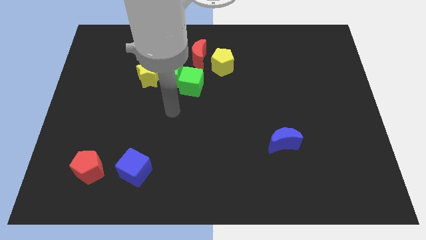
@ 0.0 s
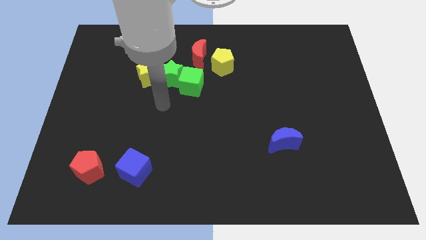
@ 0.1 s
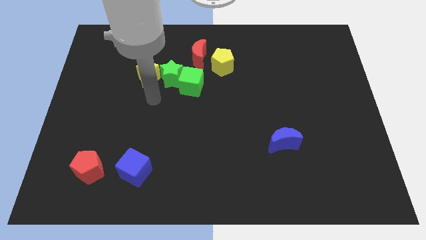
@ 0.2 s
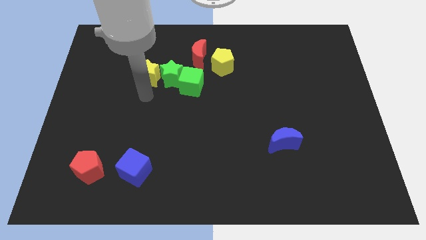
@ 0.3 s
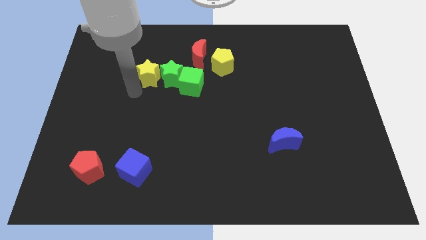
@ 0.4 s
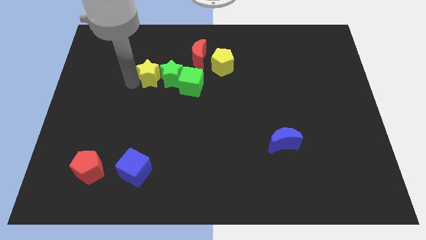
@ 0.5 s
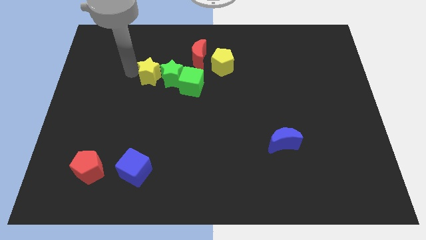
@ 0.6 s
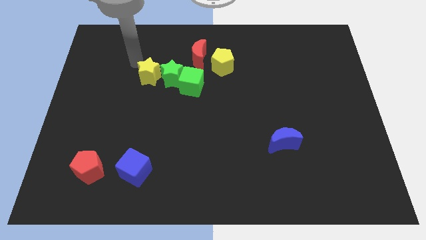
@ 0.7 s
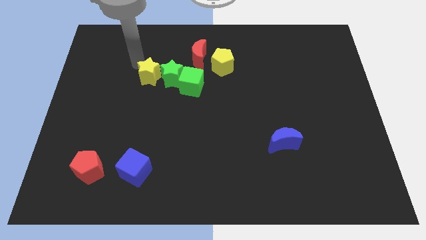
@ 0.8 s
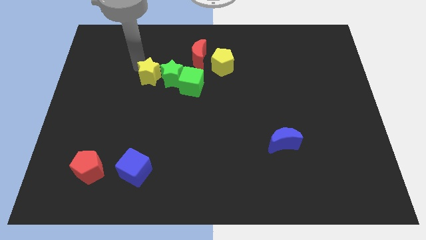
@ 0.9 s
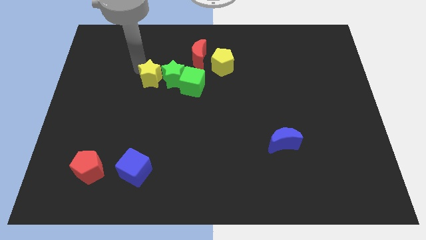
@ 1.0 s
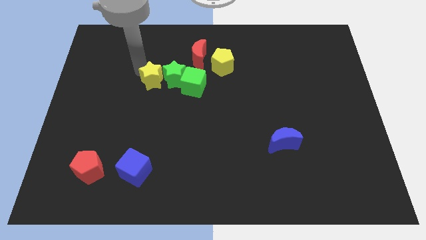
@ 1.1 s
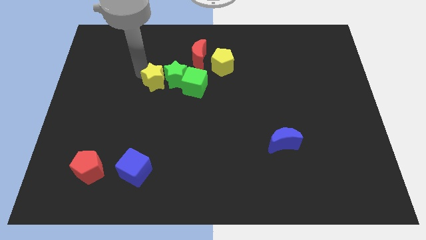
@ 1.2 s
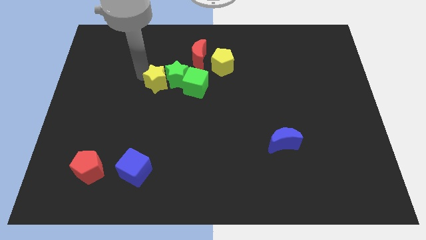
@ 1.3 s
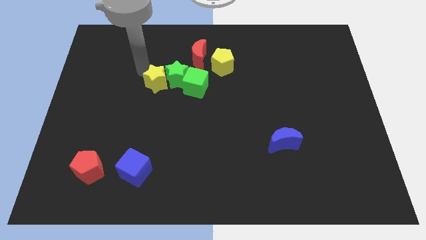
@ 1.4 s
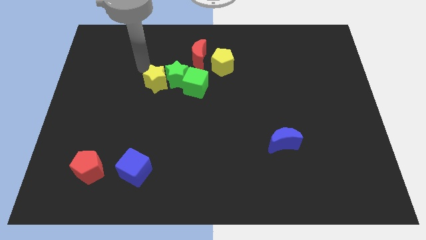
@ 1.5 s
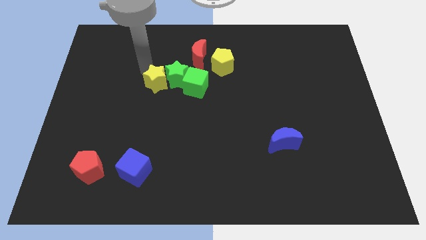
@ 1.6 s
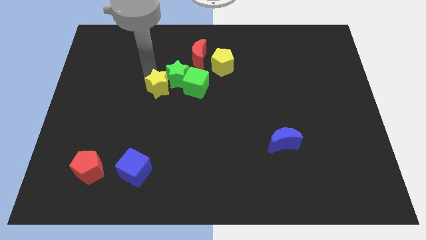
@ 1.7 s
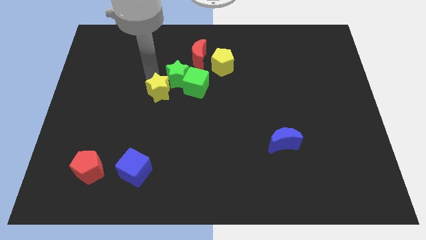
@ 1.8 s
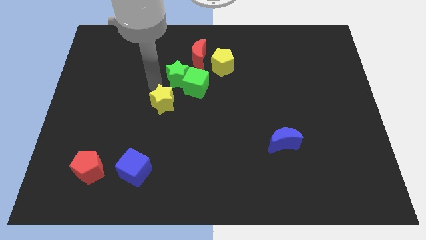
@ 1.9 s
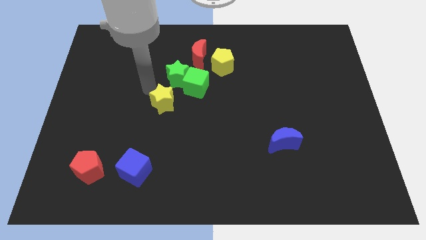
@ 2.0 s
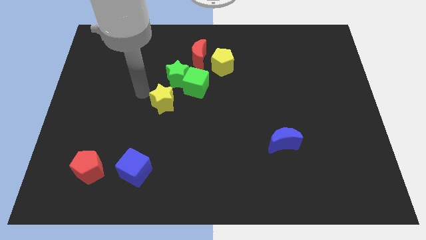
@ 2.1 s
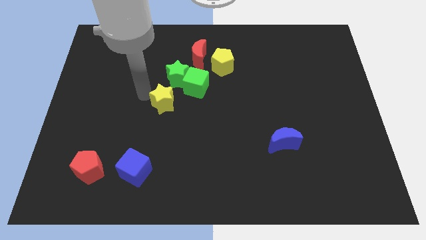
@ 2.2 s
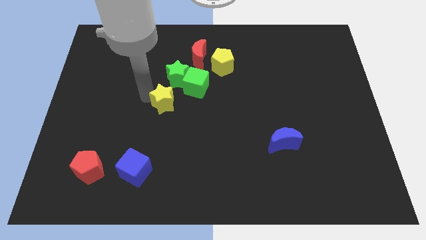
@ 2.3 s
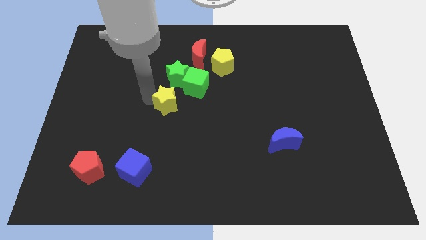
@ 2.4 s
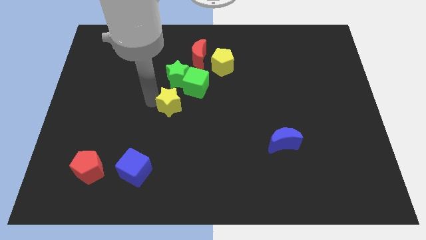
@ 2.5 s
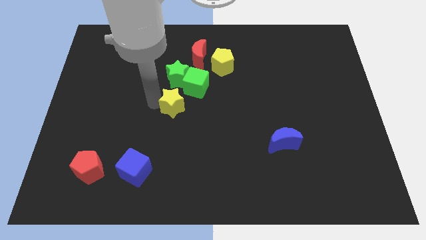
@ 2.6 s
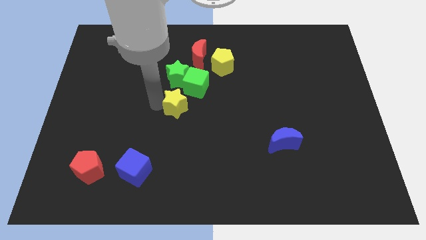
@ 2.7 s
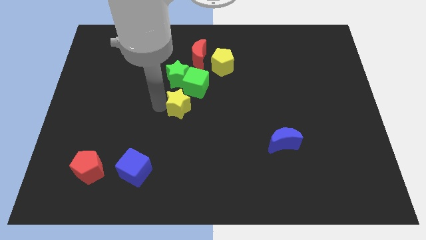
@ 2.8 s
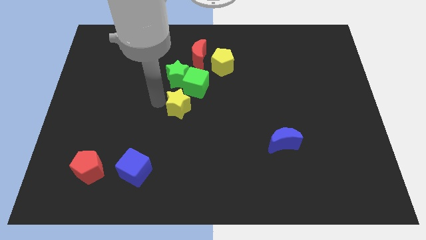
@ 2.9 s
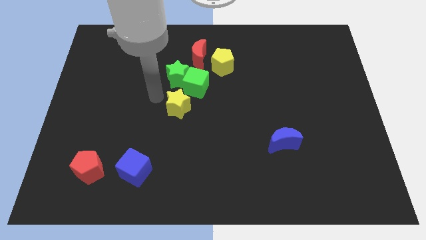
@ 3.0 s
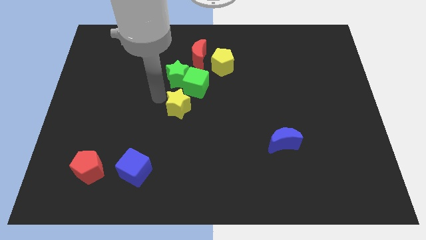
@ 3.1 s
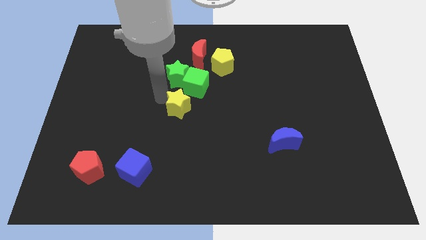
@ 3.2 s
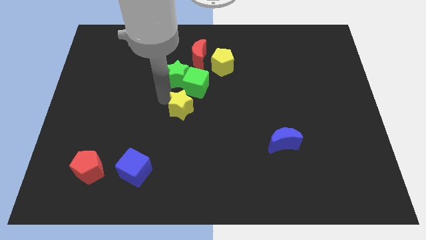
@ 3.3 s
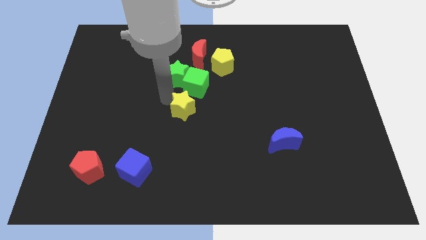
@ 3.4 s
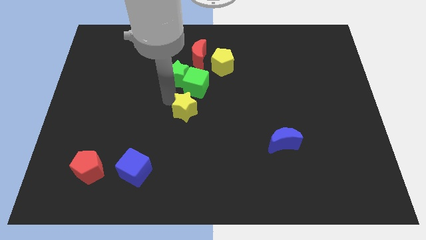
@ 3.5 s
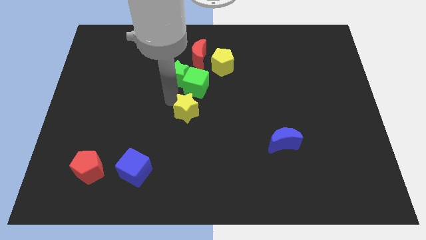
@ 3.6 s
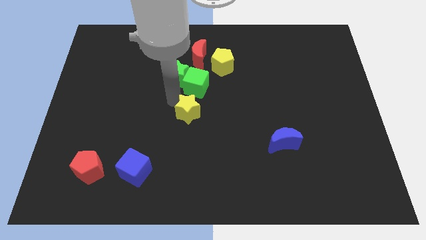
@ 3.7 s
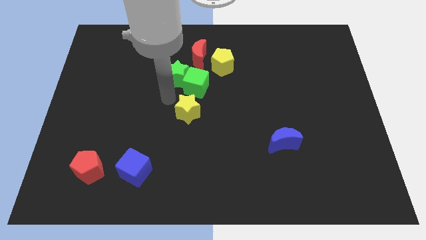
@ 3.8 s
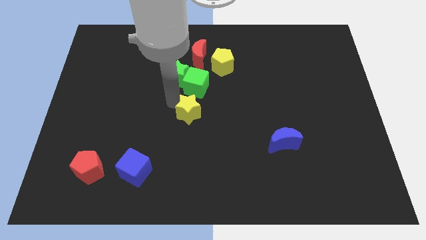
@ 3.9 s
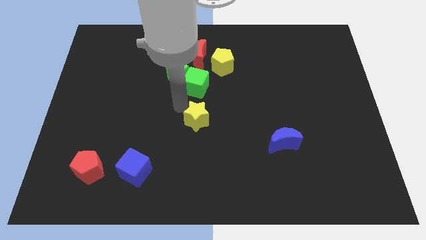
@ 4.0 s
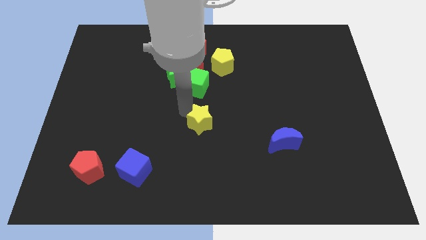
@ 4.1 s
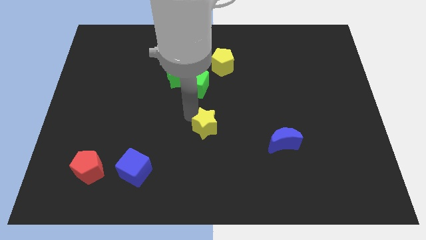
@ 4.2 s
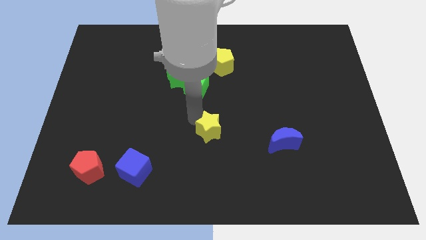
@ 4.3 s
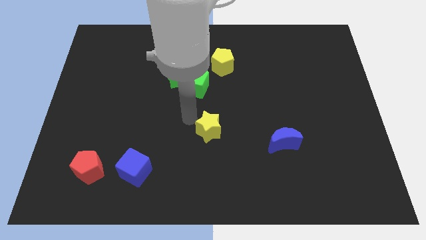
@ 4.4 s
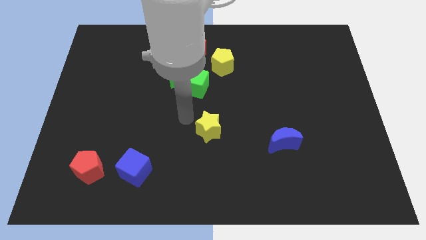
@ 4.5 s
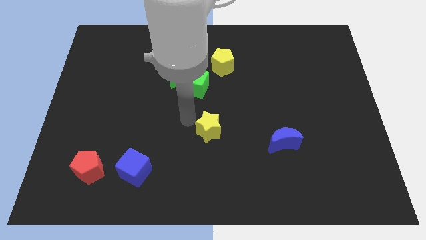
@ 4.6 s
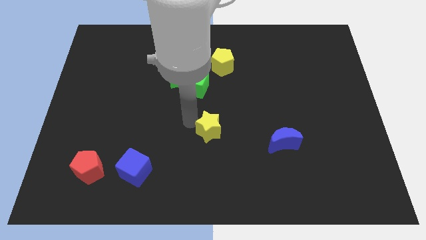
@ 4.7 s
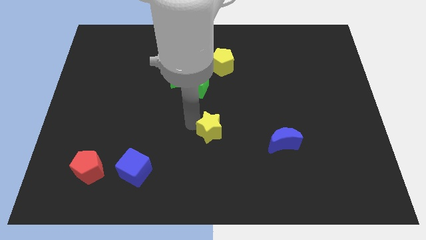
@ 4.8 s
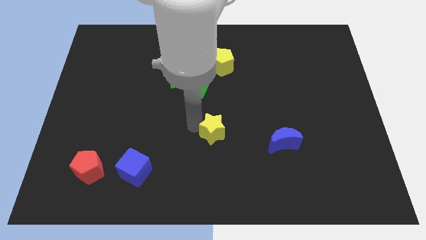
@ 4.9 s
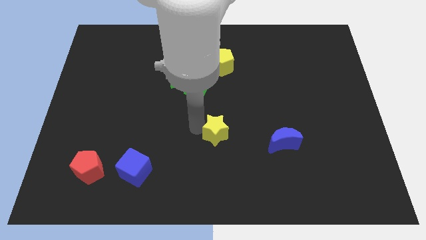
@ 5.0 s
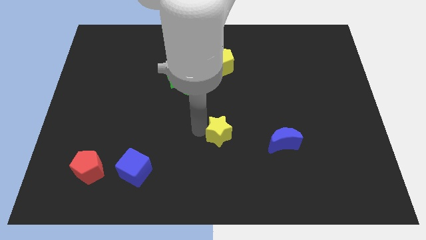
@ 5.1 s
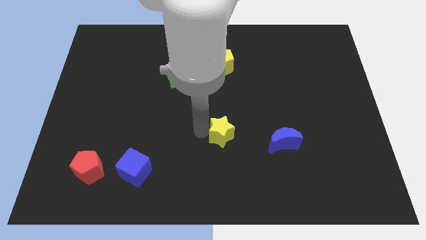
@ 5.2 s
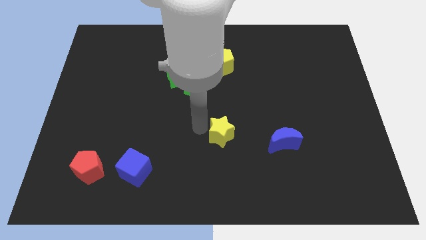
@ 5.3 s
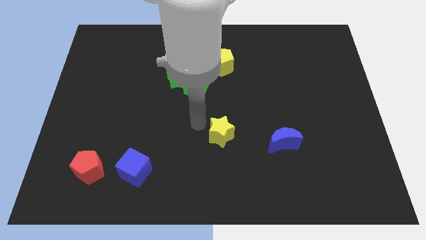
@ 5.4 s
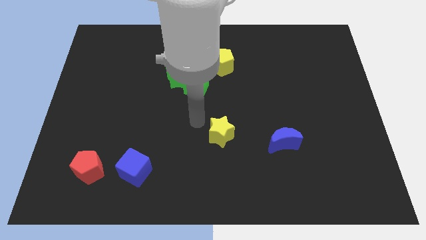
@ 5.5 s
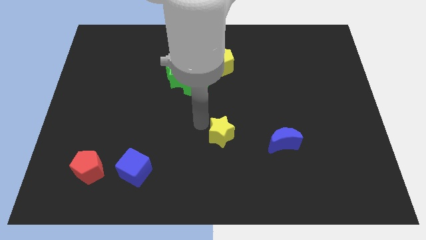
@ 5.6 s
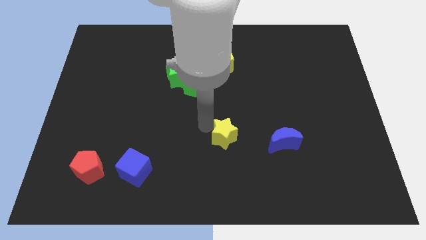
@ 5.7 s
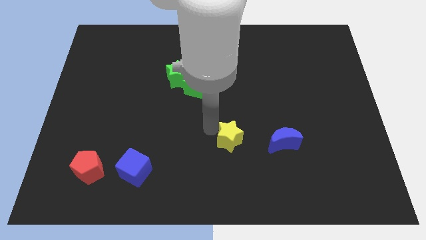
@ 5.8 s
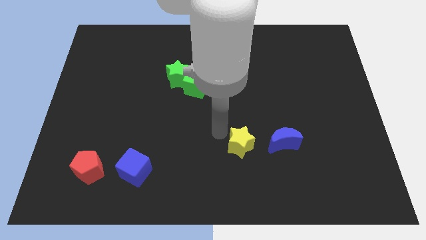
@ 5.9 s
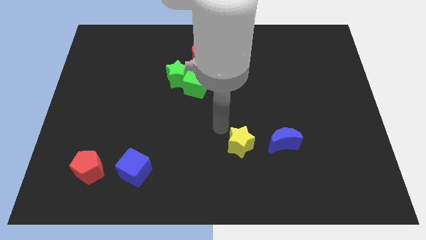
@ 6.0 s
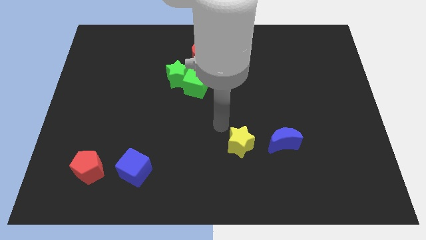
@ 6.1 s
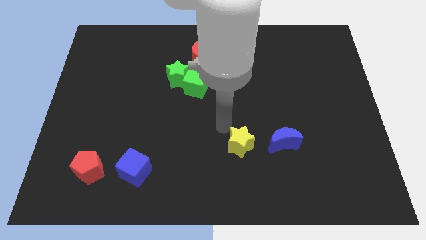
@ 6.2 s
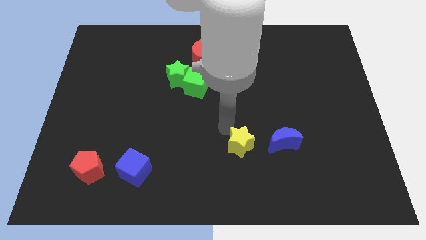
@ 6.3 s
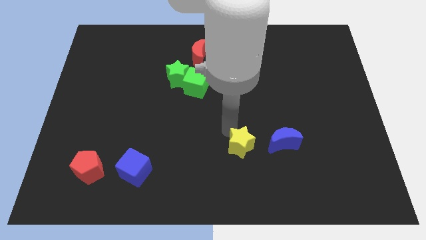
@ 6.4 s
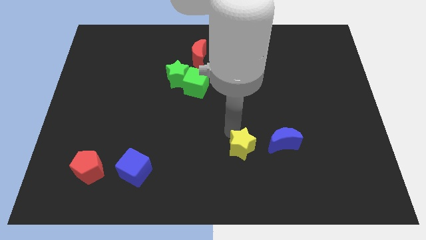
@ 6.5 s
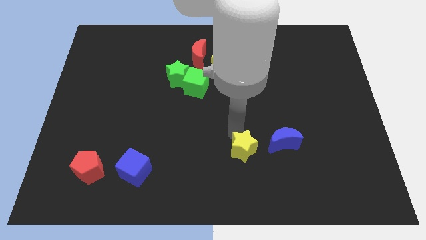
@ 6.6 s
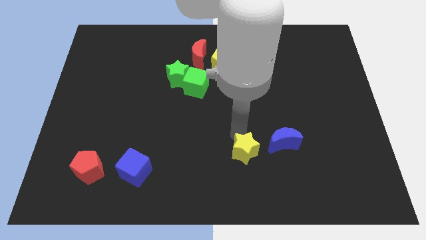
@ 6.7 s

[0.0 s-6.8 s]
slide the yellow star diagonally down and to the left of the blue moon

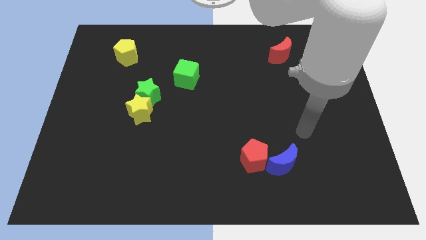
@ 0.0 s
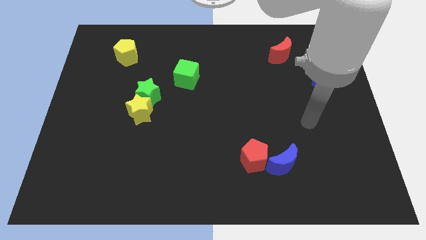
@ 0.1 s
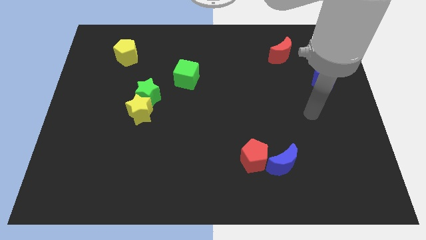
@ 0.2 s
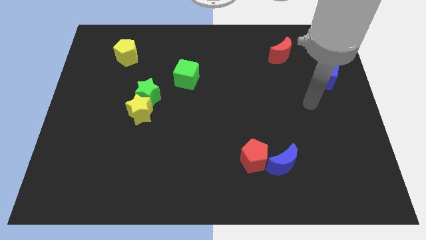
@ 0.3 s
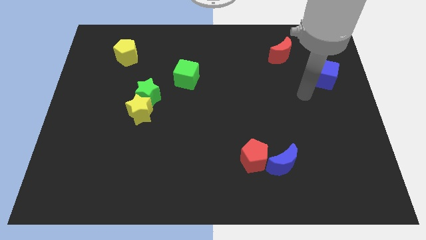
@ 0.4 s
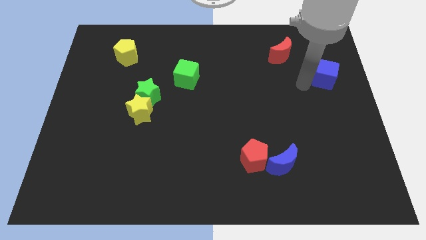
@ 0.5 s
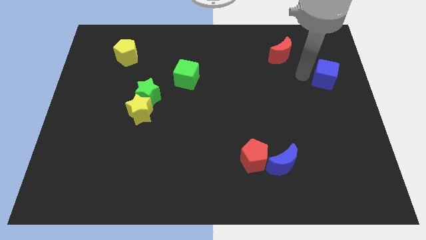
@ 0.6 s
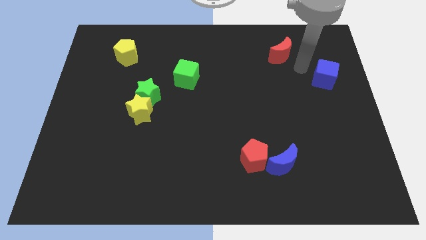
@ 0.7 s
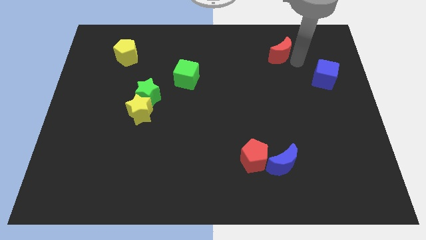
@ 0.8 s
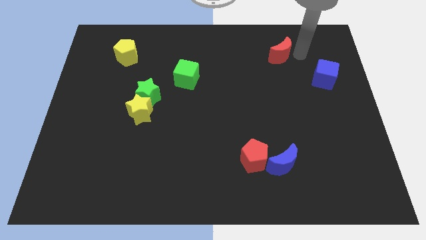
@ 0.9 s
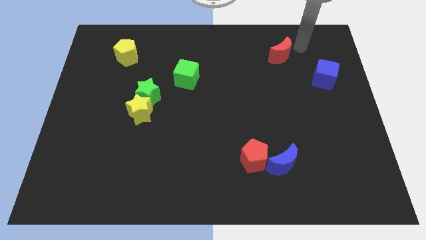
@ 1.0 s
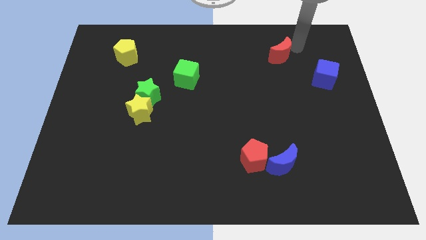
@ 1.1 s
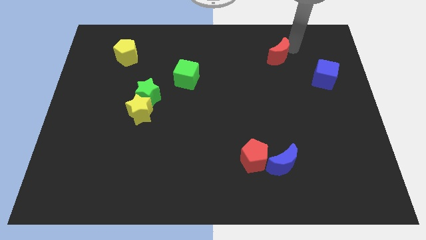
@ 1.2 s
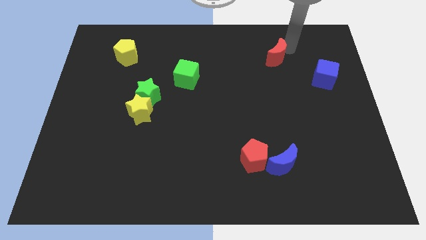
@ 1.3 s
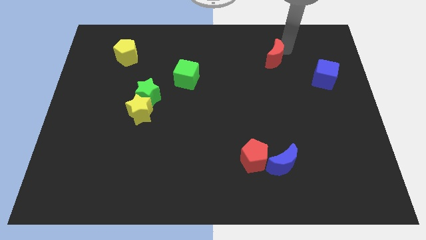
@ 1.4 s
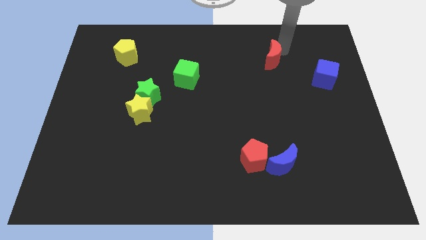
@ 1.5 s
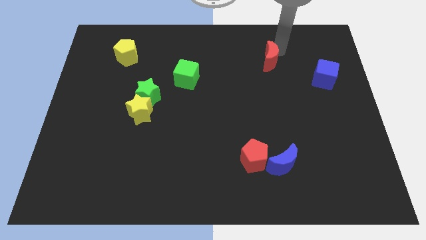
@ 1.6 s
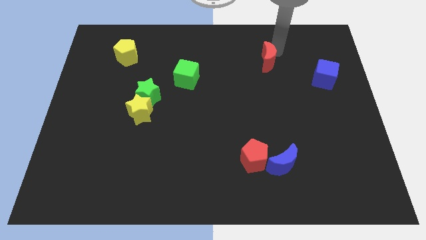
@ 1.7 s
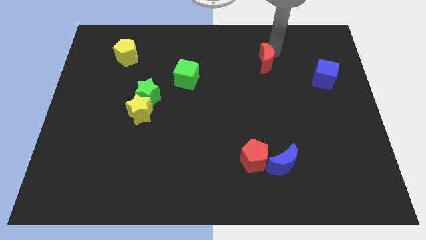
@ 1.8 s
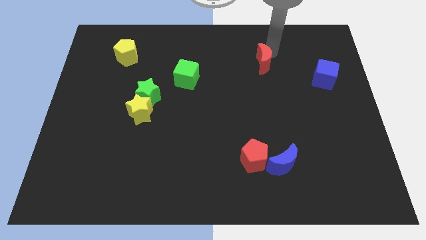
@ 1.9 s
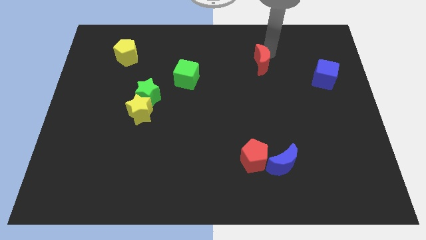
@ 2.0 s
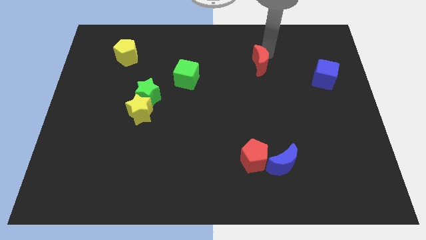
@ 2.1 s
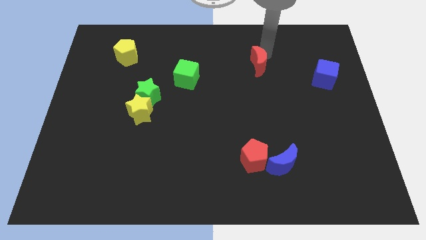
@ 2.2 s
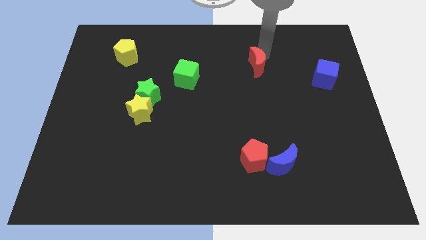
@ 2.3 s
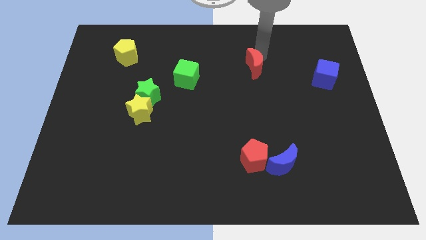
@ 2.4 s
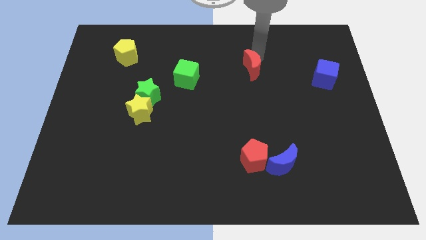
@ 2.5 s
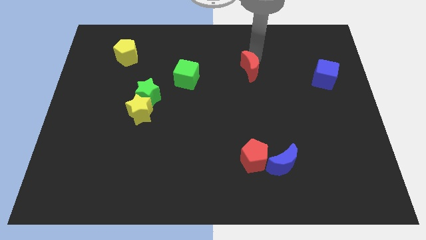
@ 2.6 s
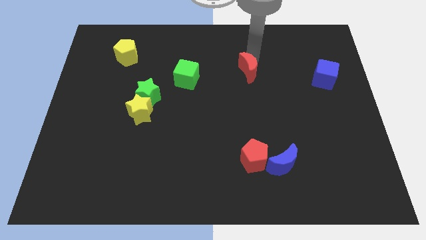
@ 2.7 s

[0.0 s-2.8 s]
slide the red moon to the right of the green cube
